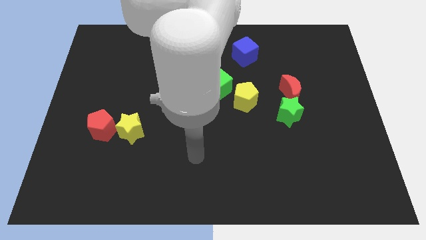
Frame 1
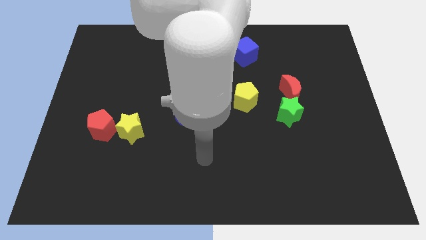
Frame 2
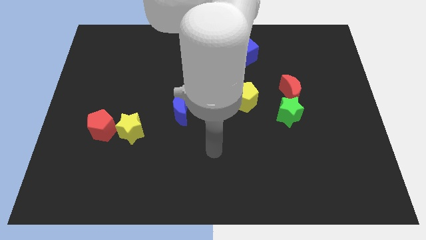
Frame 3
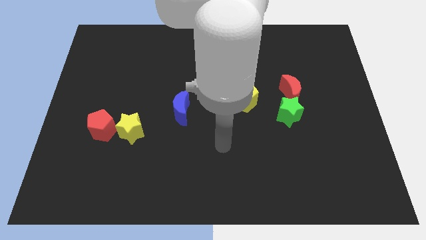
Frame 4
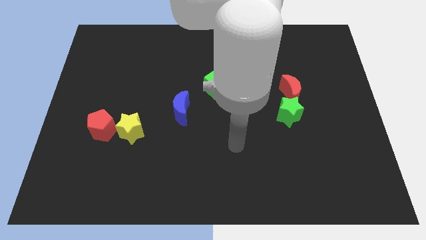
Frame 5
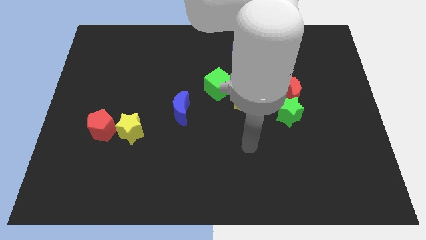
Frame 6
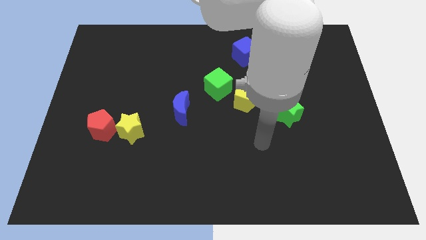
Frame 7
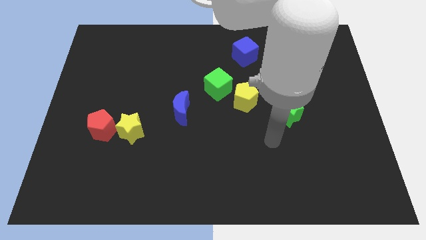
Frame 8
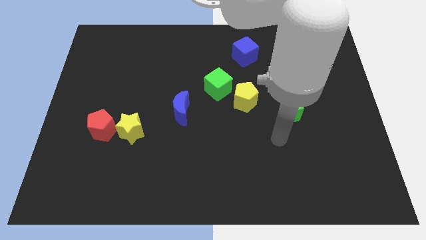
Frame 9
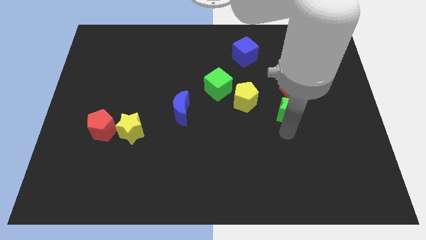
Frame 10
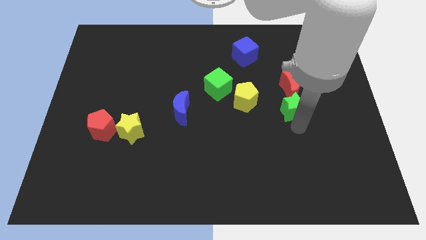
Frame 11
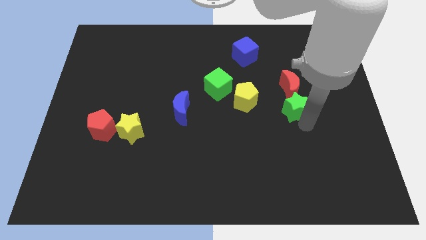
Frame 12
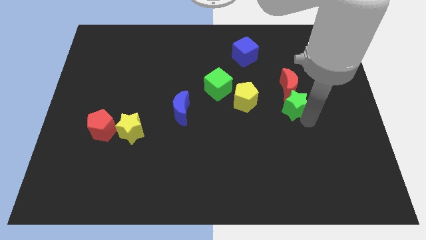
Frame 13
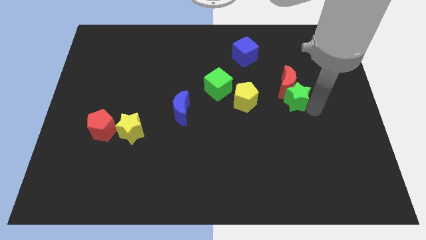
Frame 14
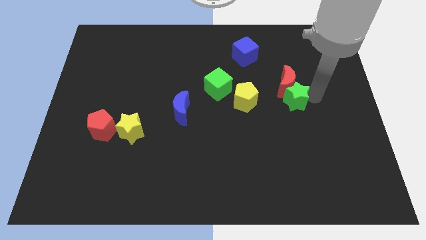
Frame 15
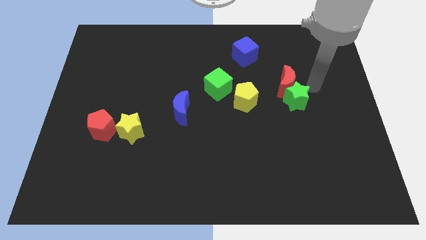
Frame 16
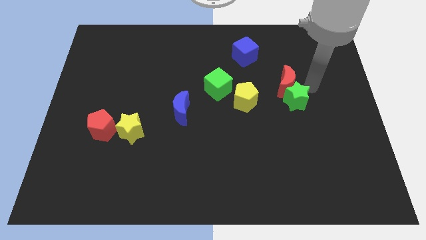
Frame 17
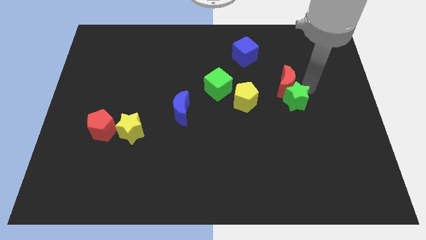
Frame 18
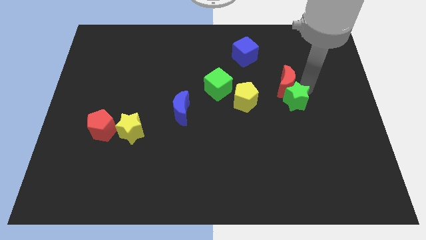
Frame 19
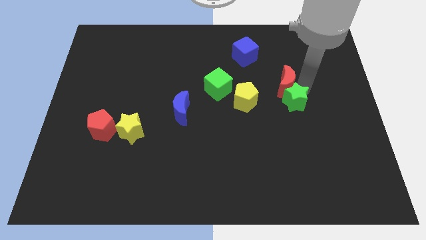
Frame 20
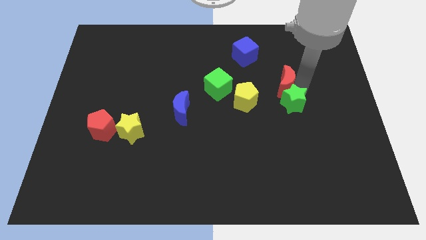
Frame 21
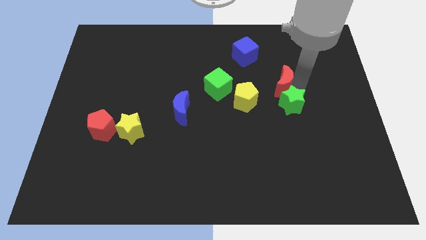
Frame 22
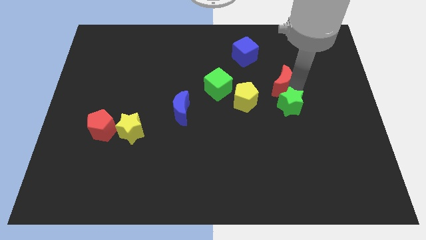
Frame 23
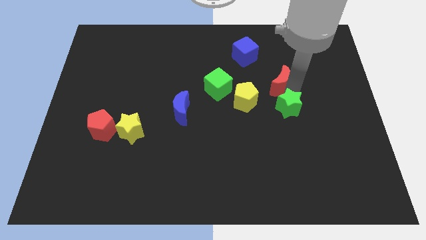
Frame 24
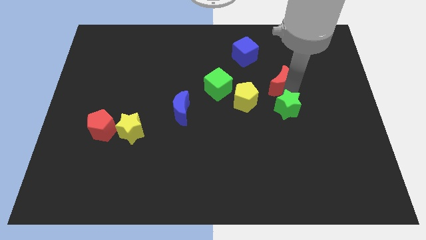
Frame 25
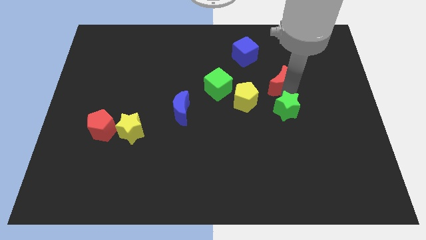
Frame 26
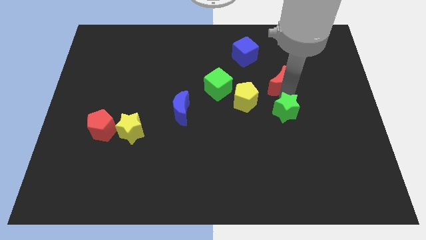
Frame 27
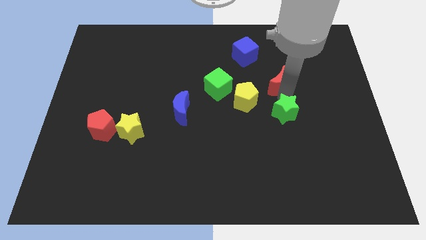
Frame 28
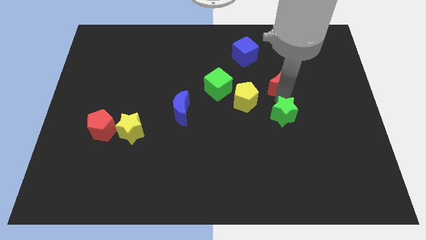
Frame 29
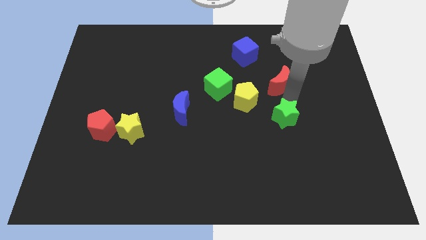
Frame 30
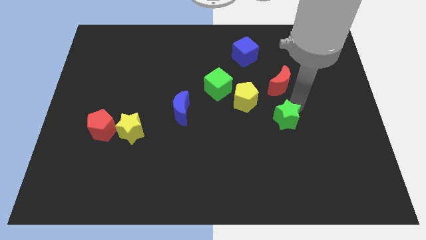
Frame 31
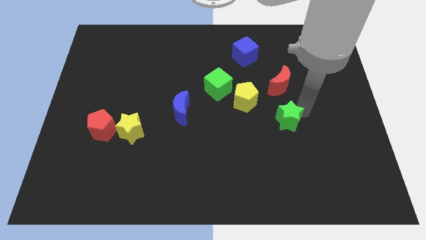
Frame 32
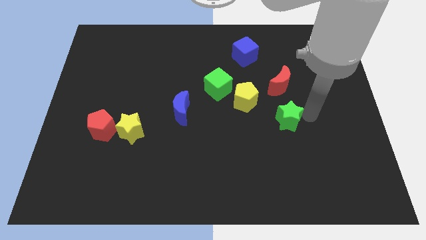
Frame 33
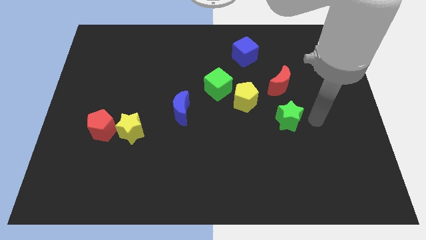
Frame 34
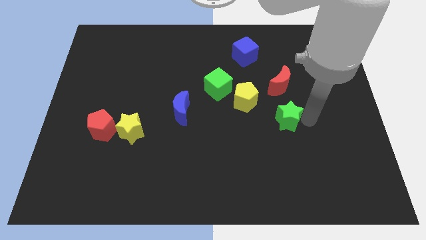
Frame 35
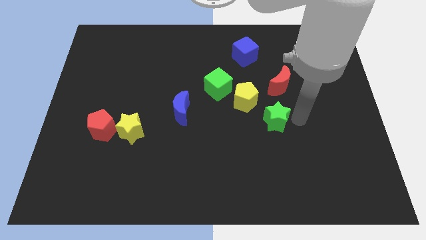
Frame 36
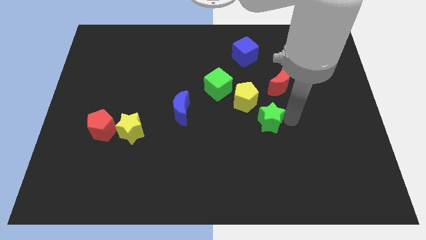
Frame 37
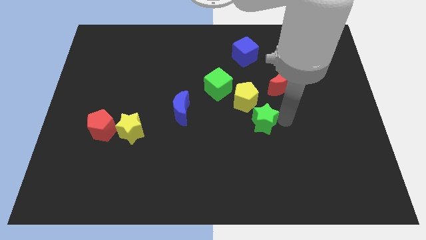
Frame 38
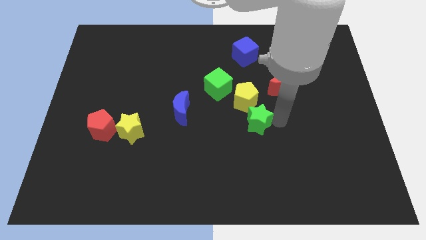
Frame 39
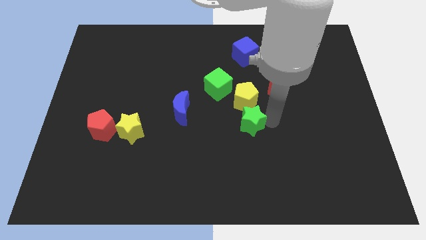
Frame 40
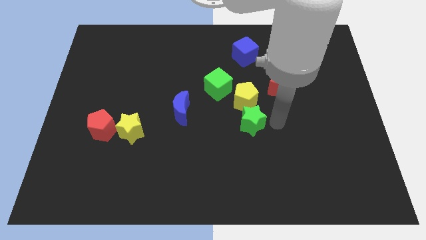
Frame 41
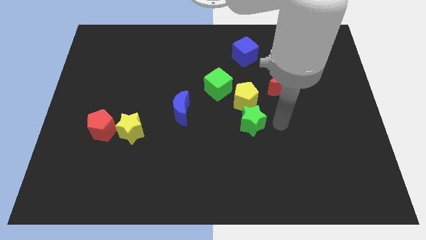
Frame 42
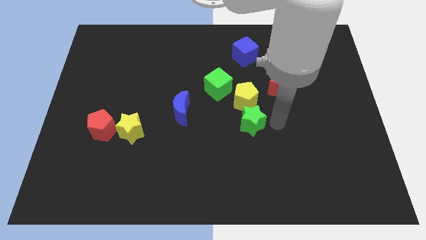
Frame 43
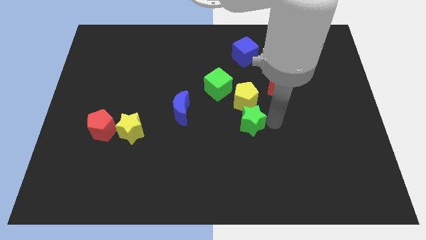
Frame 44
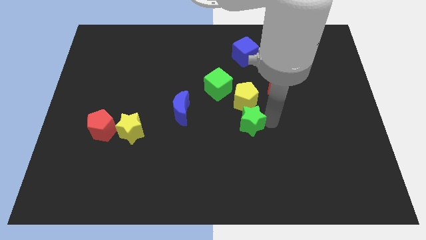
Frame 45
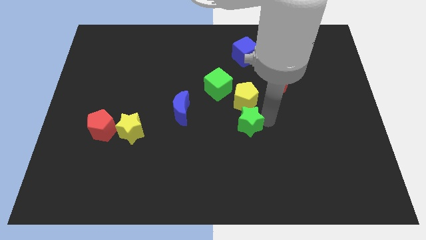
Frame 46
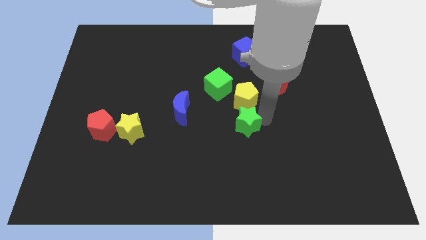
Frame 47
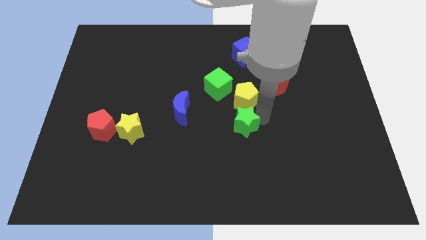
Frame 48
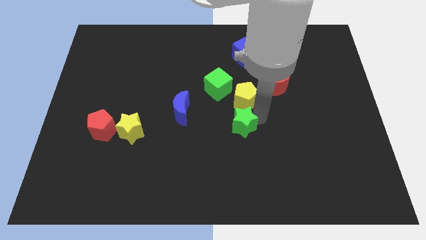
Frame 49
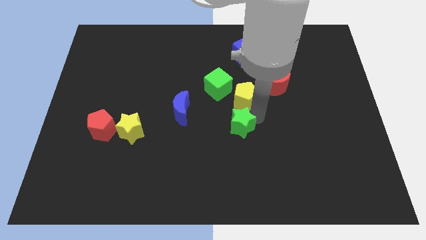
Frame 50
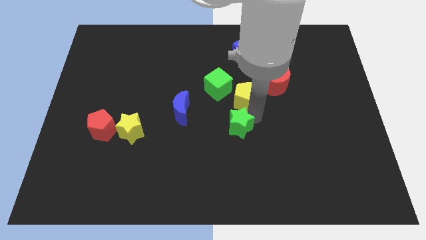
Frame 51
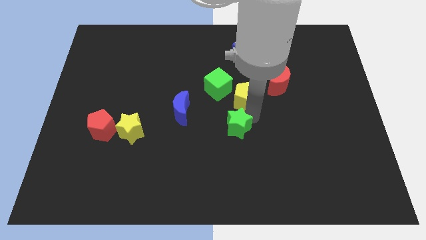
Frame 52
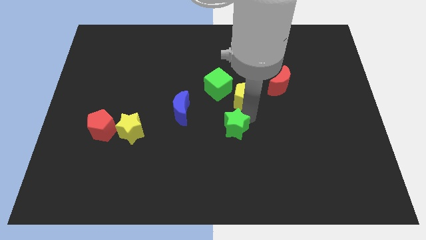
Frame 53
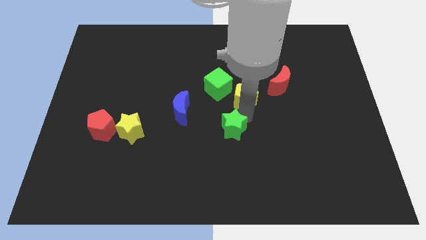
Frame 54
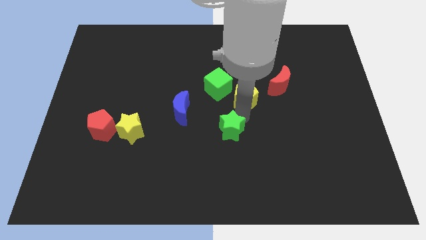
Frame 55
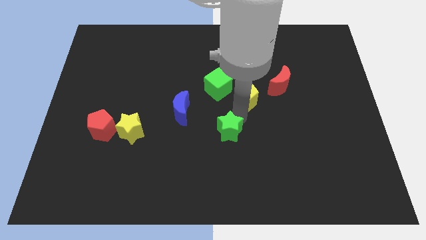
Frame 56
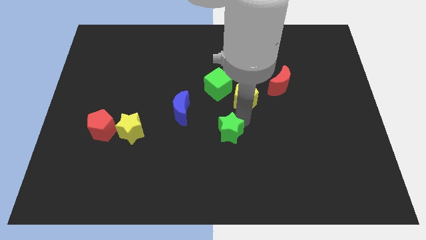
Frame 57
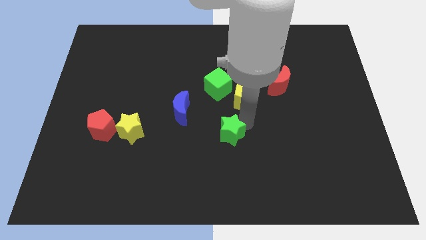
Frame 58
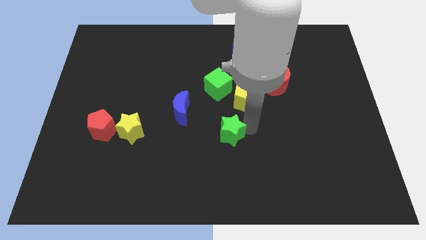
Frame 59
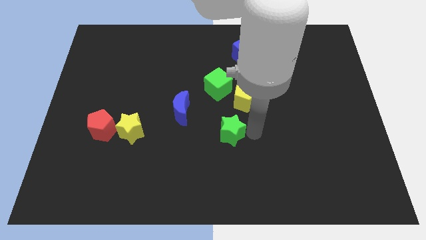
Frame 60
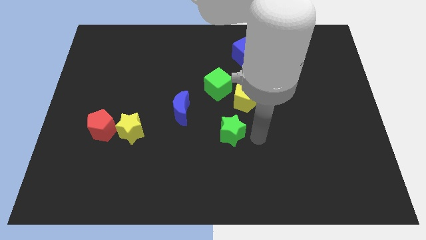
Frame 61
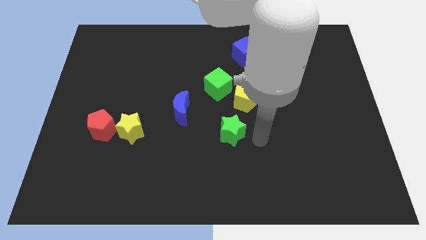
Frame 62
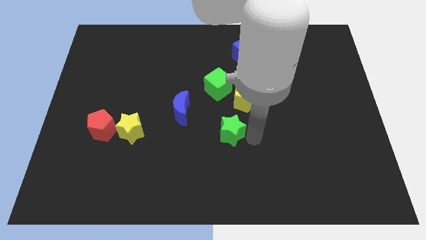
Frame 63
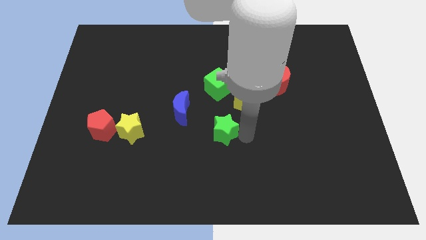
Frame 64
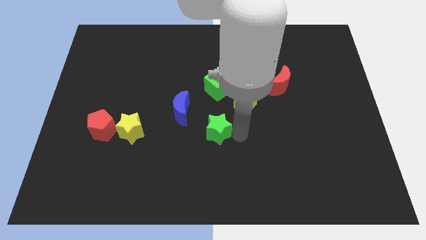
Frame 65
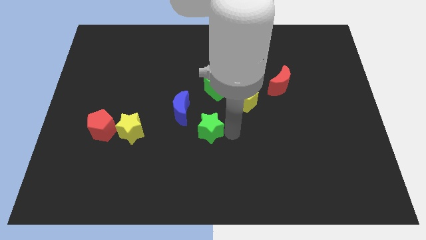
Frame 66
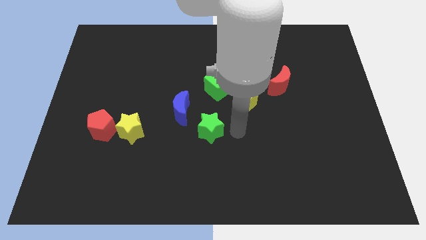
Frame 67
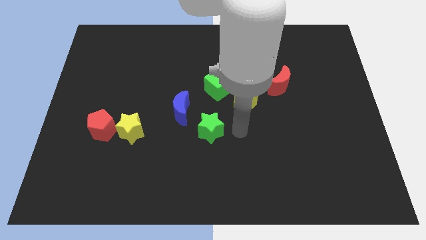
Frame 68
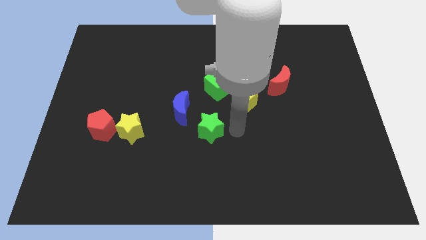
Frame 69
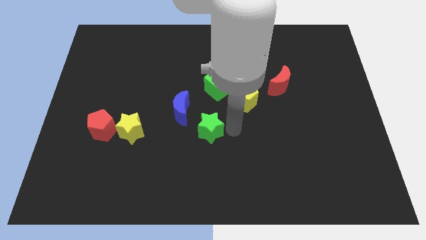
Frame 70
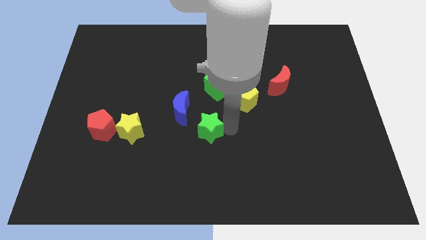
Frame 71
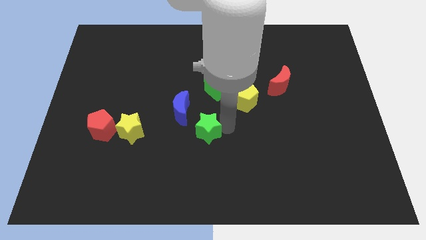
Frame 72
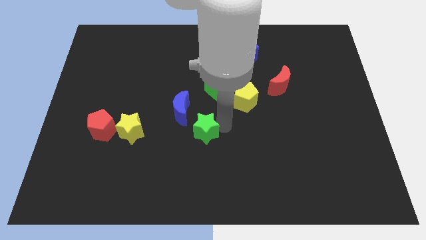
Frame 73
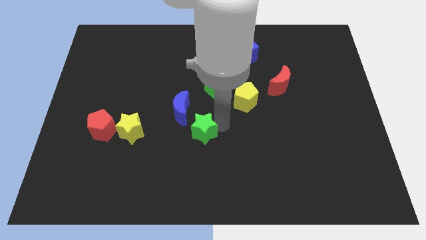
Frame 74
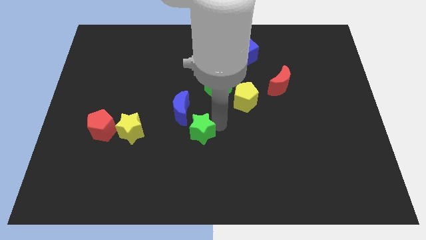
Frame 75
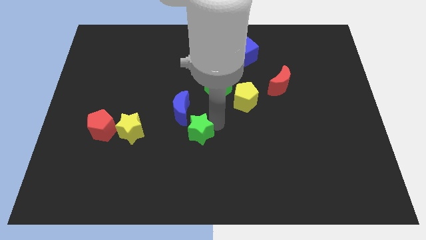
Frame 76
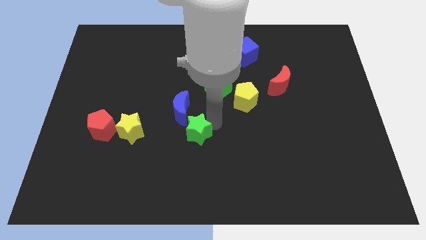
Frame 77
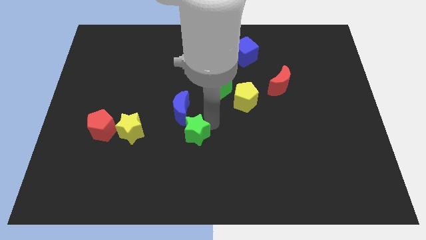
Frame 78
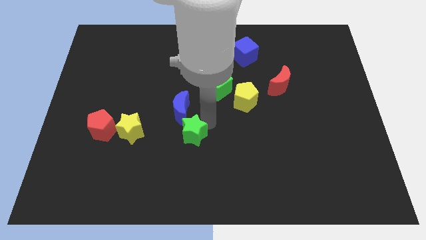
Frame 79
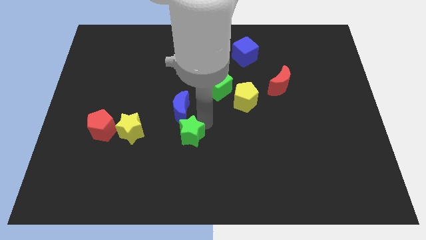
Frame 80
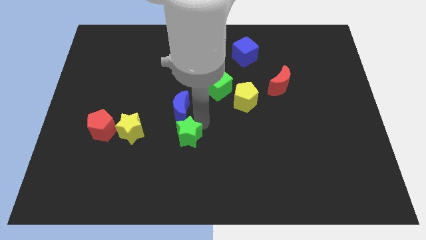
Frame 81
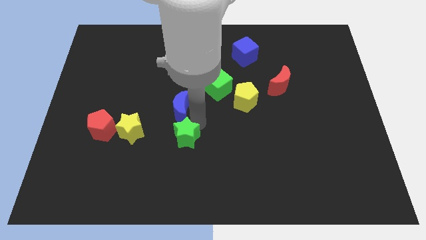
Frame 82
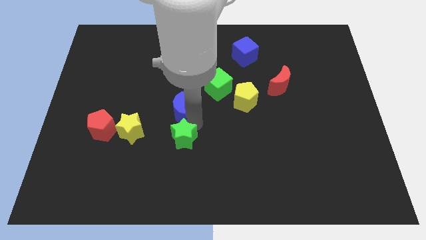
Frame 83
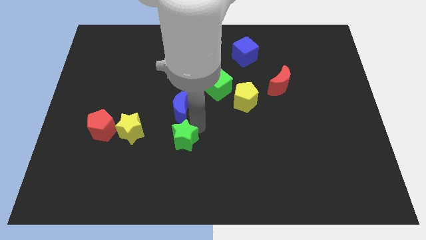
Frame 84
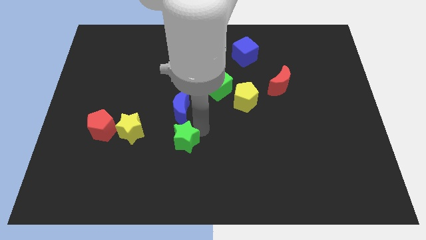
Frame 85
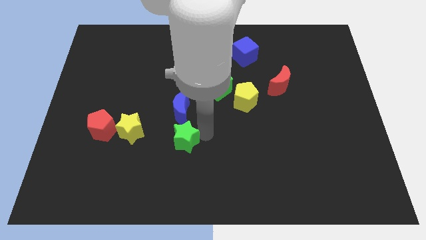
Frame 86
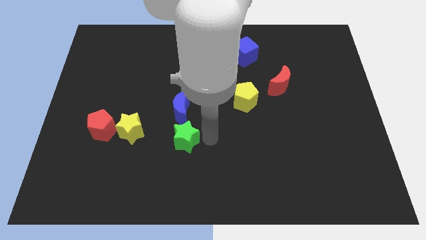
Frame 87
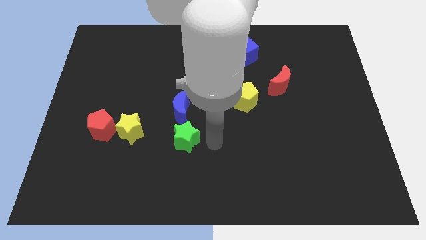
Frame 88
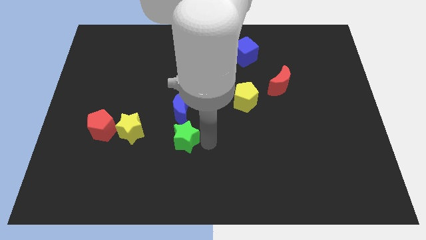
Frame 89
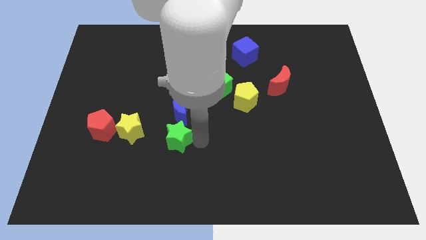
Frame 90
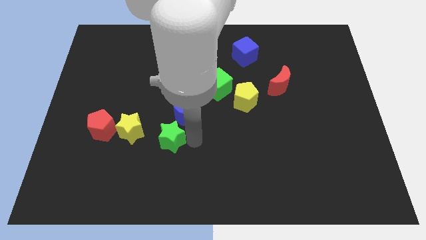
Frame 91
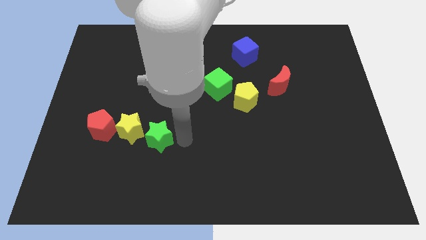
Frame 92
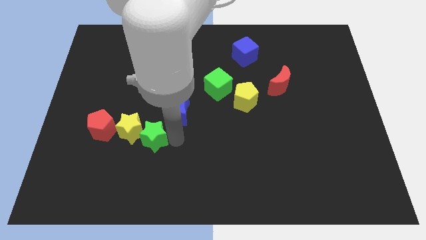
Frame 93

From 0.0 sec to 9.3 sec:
move the green star towards the yellow star
